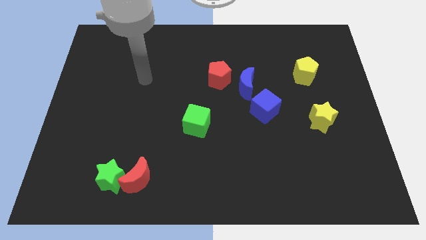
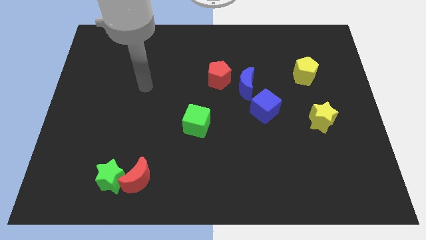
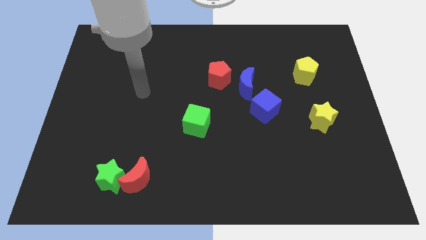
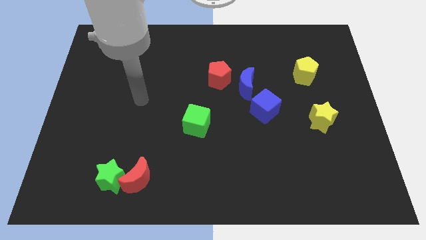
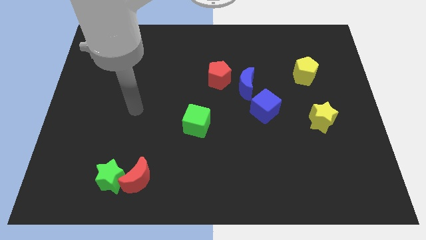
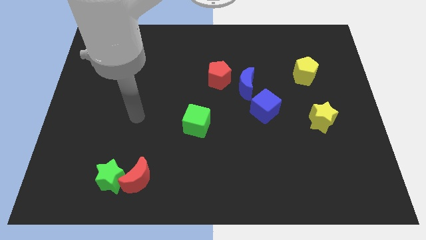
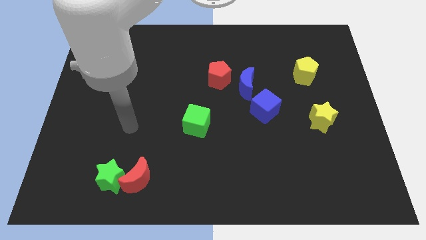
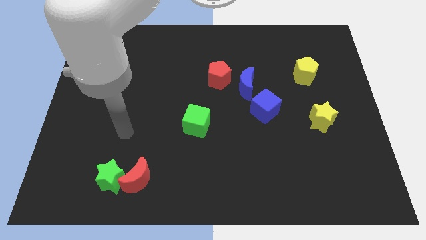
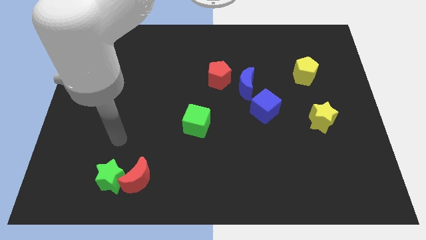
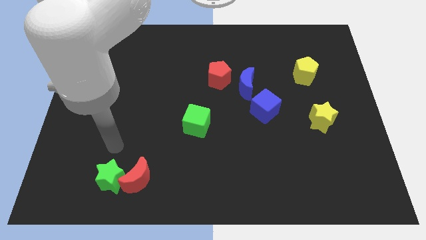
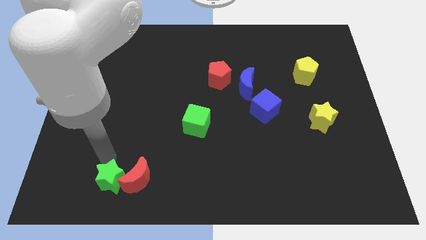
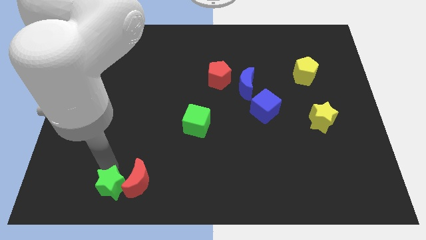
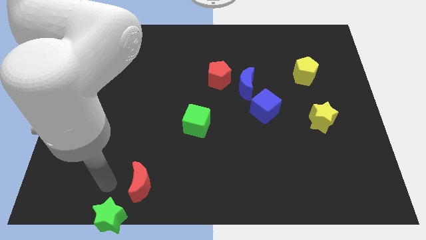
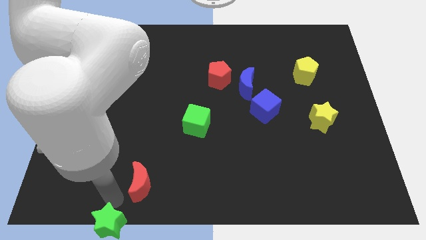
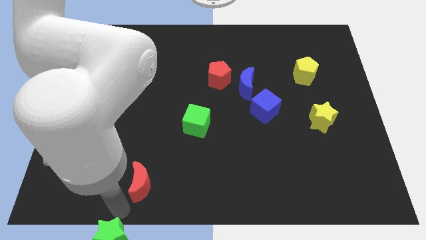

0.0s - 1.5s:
move the red moon away from the green star

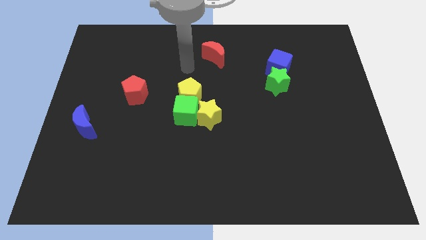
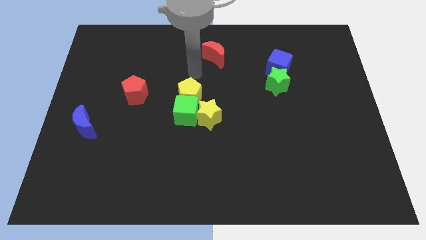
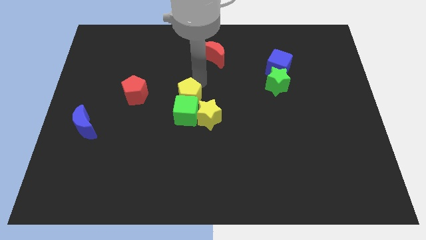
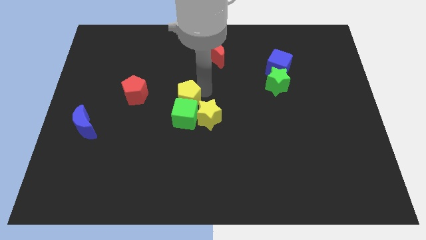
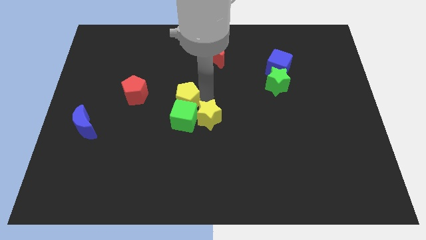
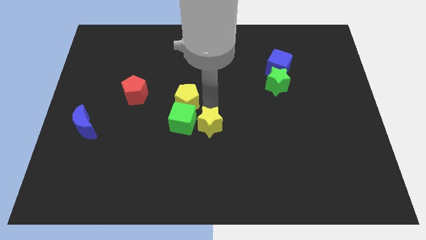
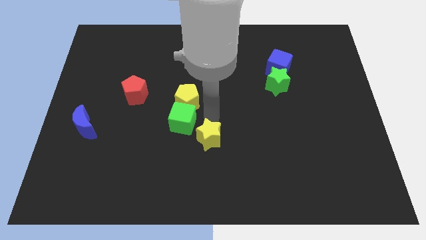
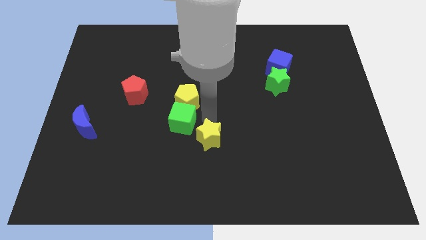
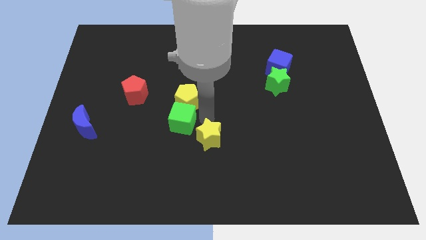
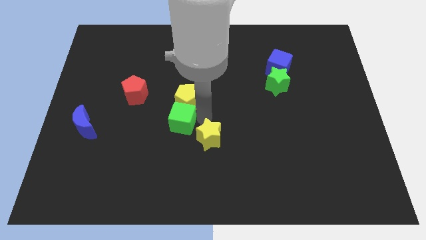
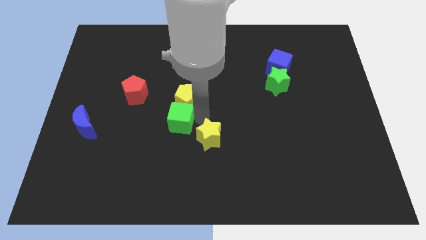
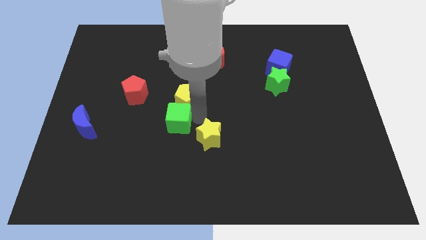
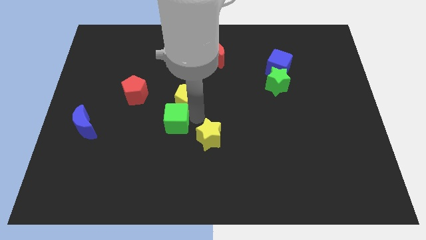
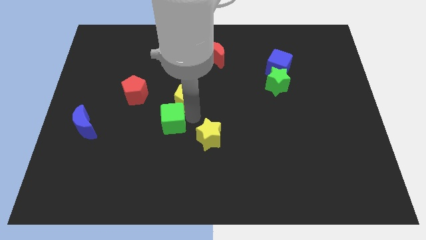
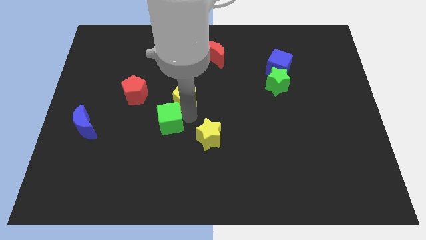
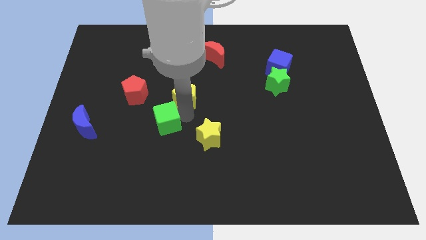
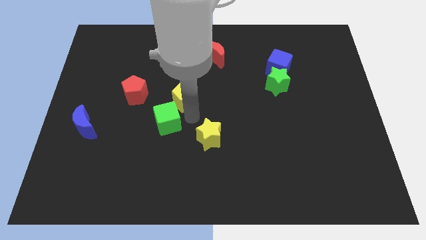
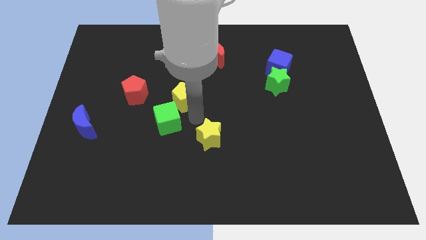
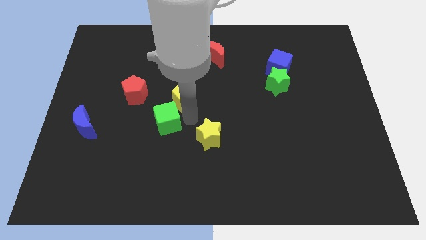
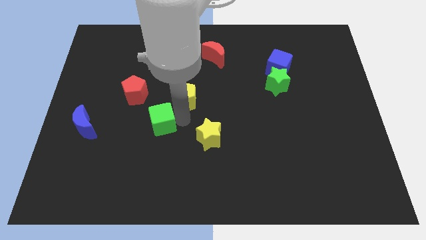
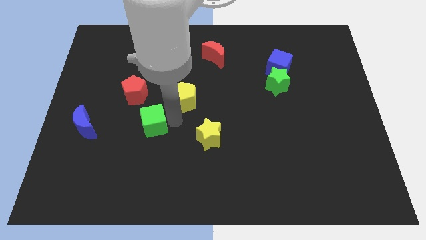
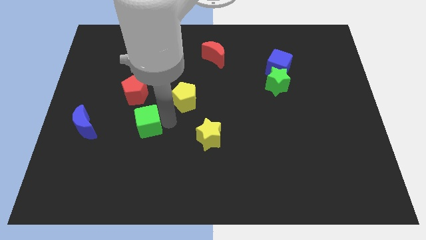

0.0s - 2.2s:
pull the green cube apart from the yellow star and yellow pentagon

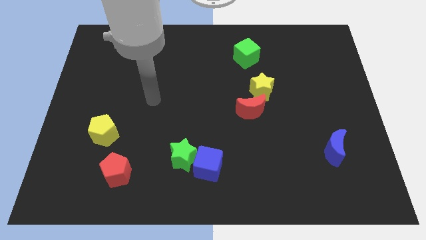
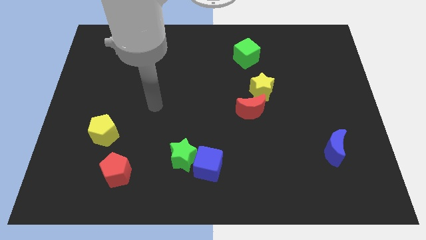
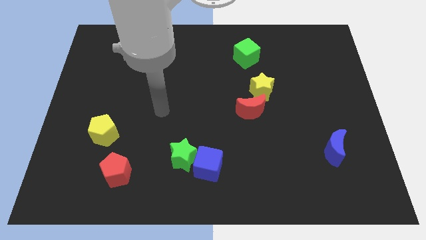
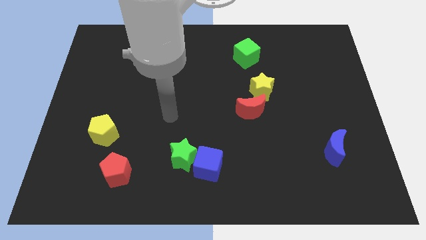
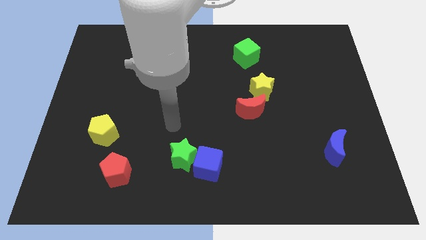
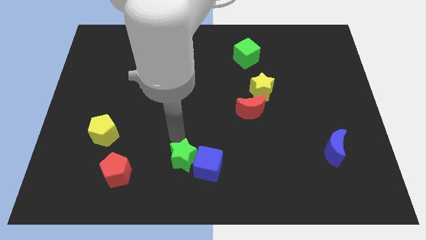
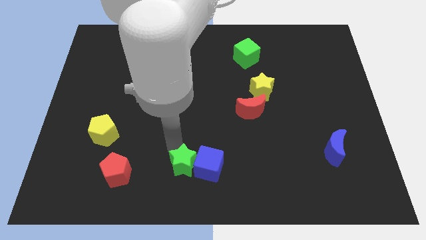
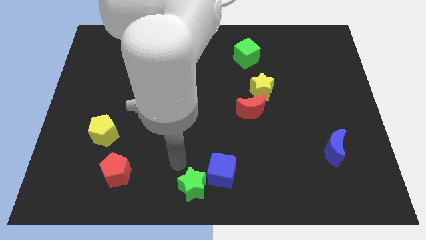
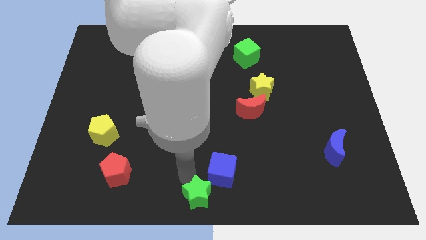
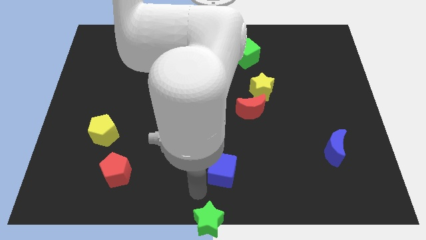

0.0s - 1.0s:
separate the blue cube from the green star

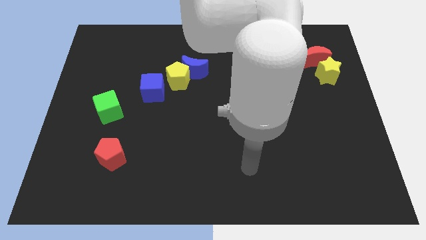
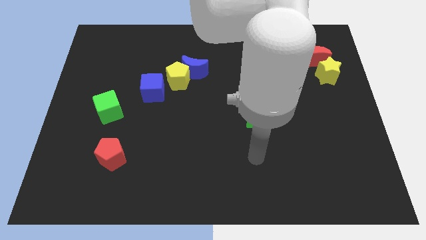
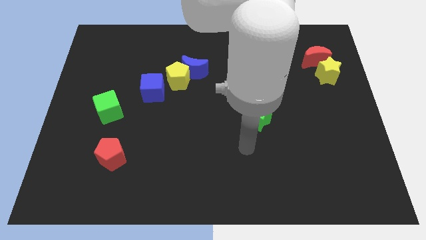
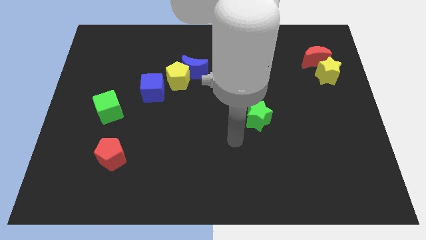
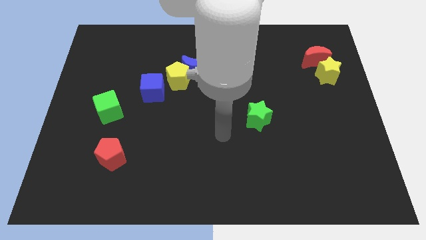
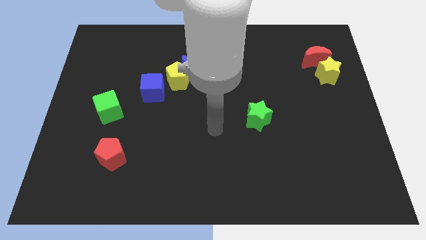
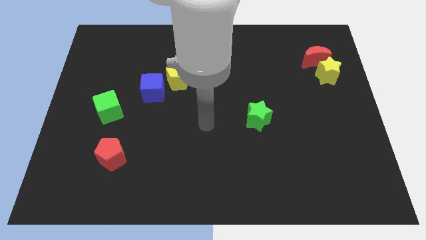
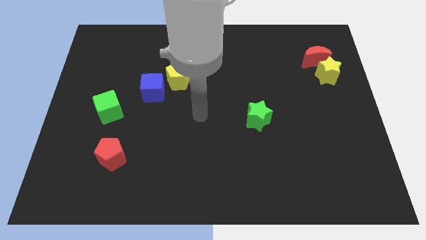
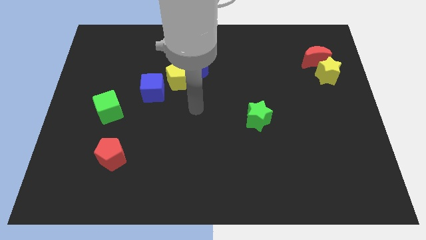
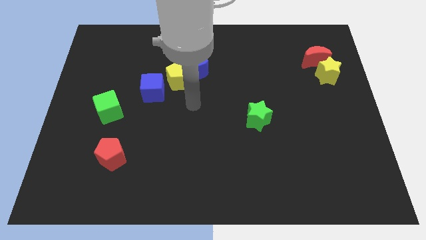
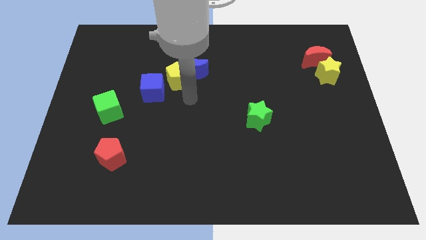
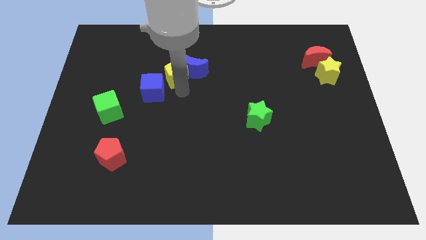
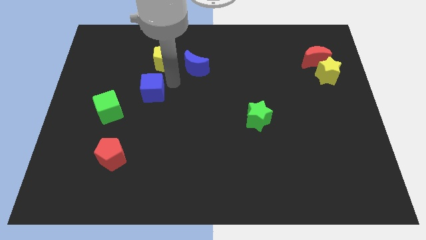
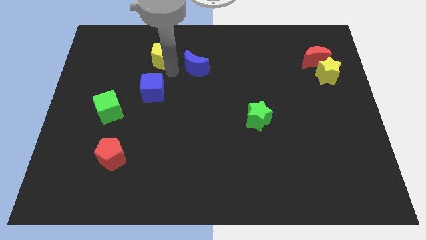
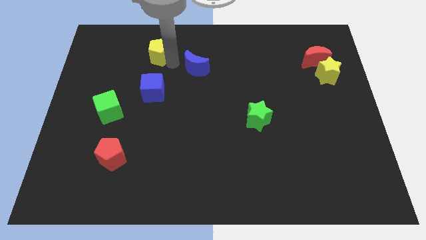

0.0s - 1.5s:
separate the blue moon from the yellow pentagon

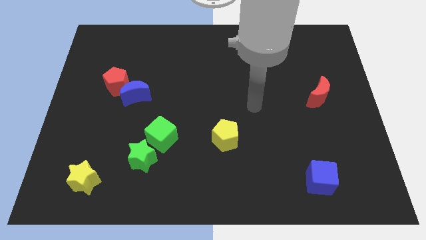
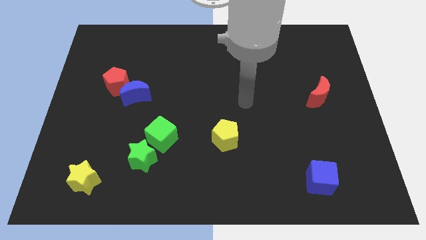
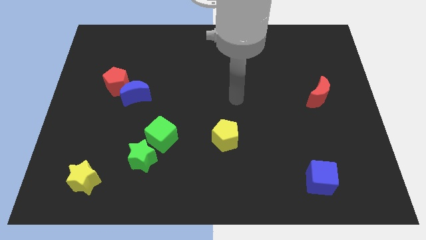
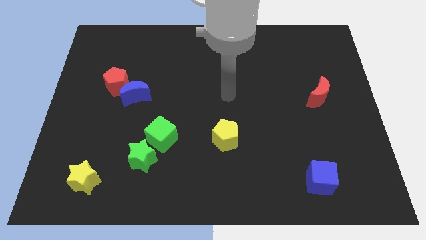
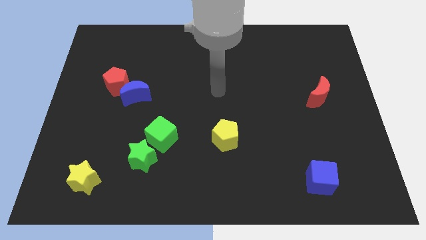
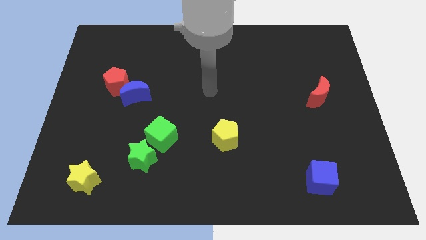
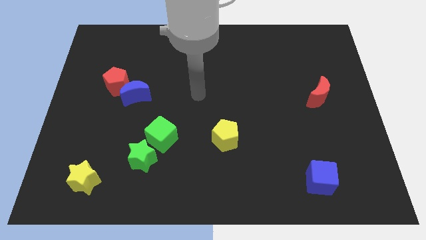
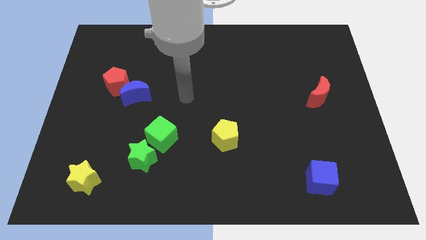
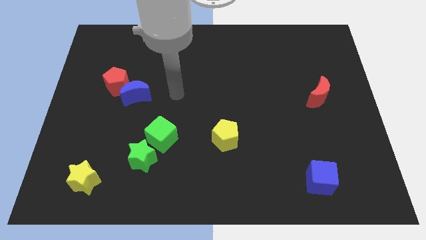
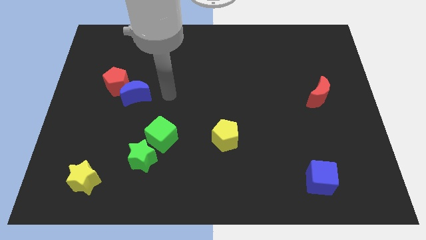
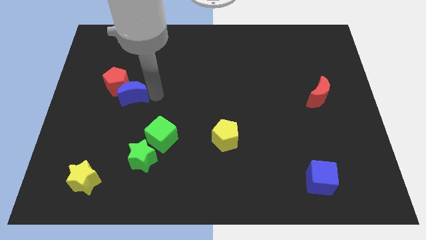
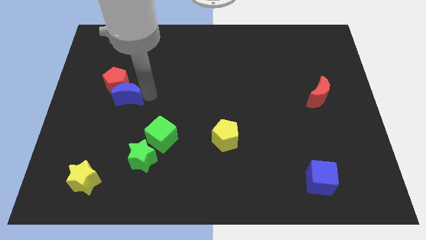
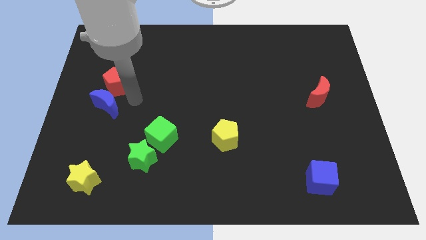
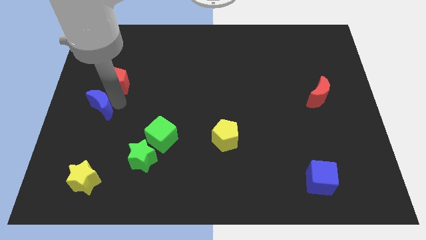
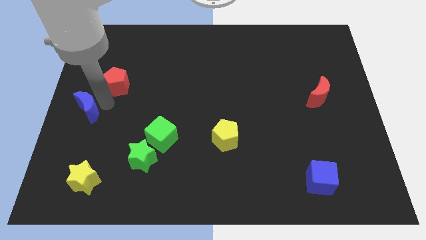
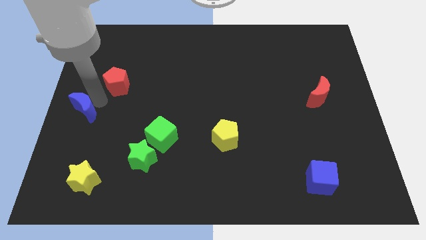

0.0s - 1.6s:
pull the red pentagon apart from the blue moon

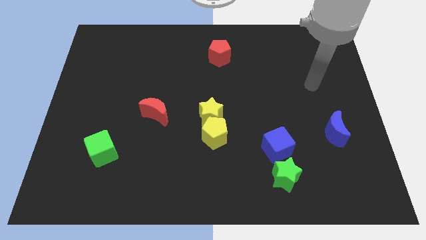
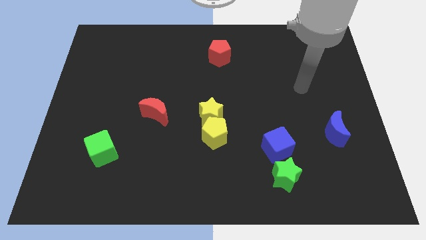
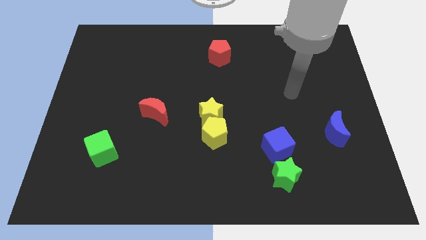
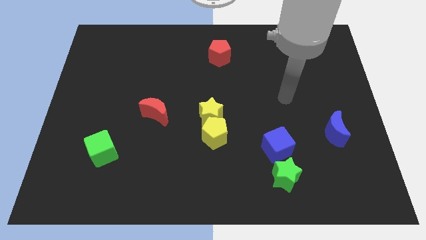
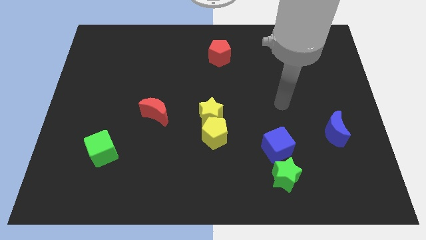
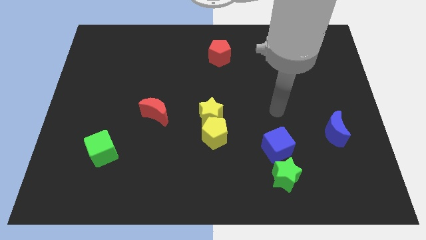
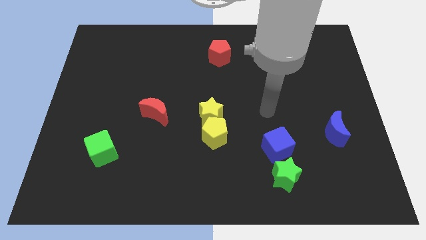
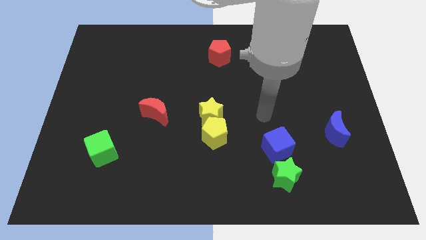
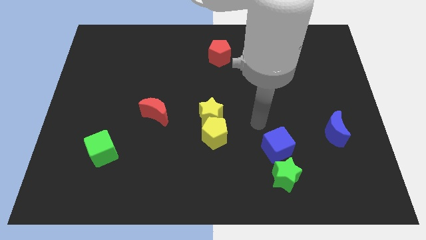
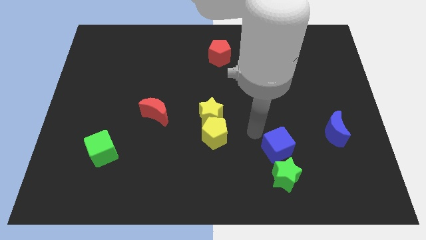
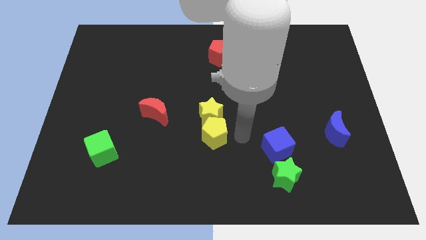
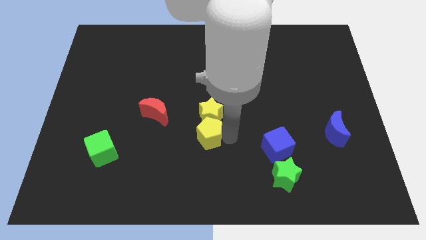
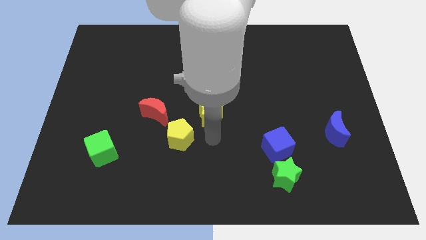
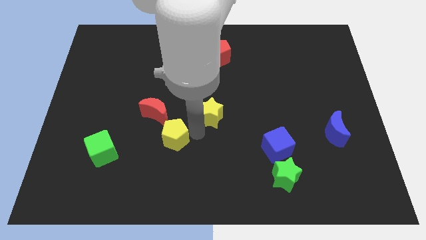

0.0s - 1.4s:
move the yellow star away from the yellow pentagon
